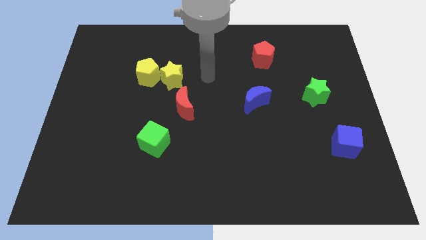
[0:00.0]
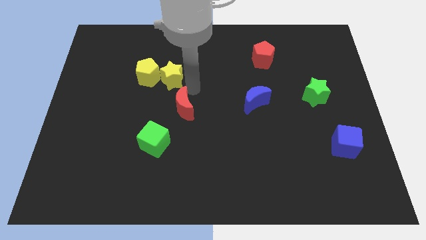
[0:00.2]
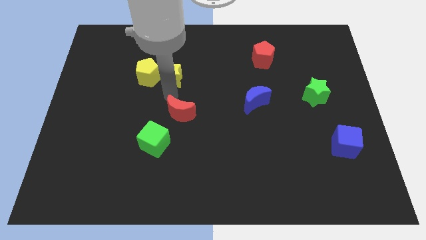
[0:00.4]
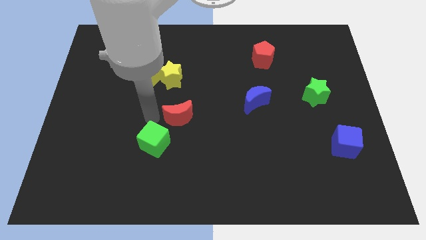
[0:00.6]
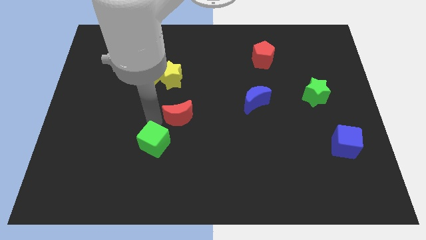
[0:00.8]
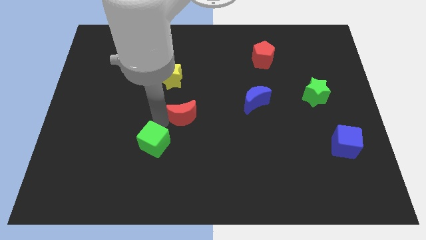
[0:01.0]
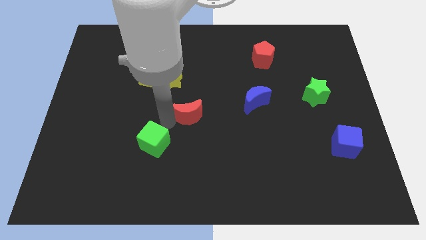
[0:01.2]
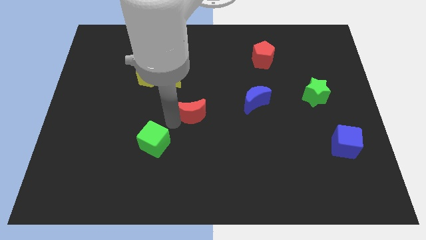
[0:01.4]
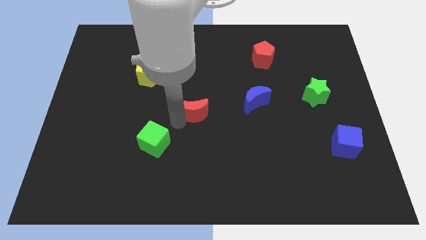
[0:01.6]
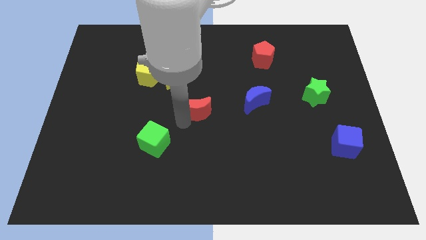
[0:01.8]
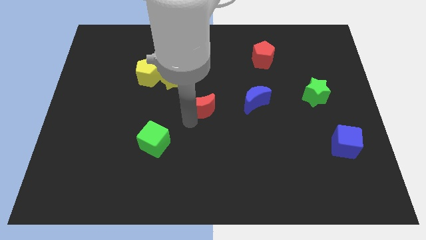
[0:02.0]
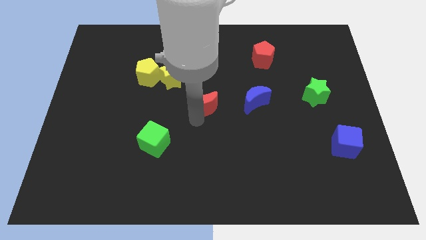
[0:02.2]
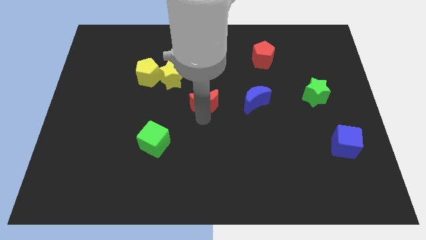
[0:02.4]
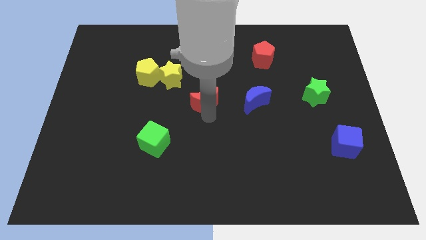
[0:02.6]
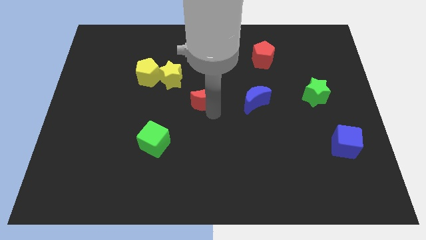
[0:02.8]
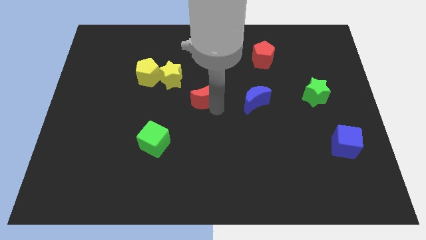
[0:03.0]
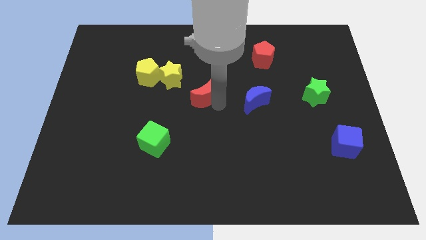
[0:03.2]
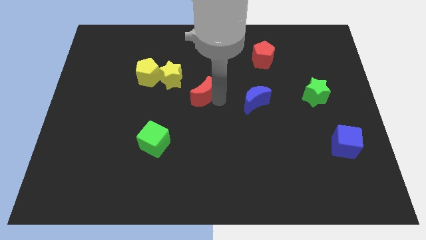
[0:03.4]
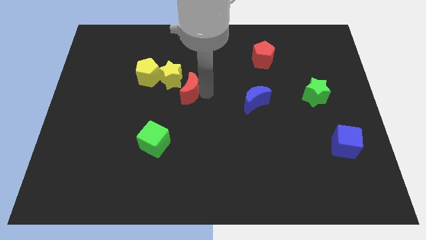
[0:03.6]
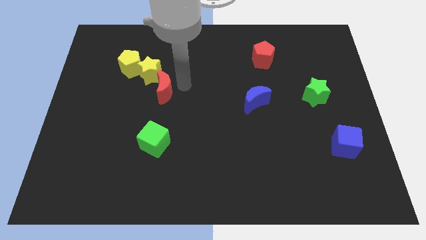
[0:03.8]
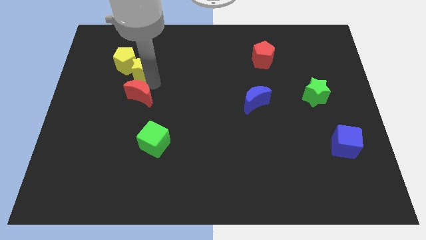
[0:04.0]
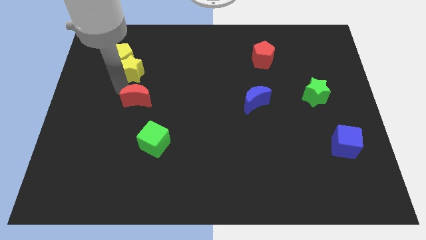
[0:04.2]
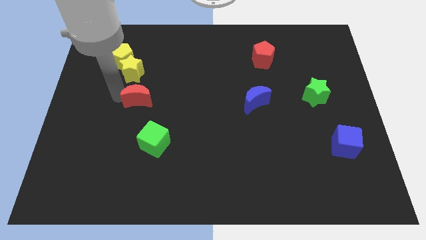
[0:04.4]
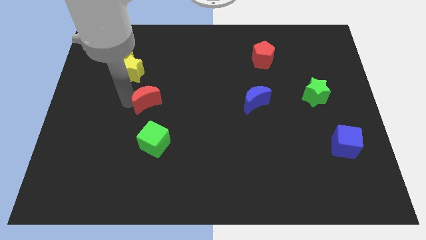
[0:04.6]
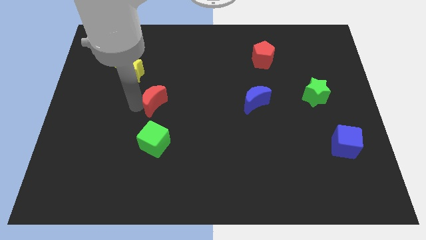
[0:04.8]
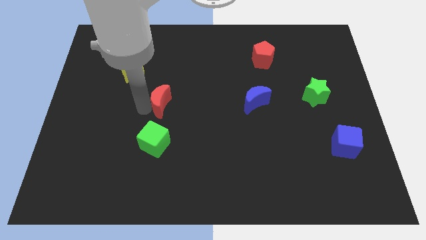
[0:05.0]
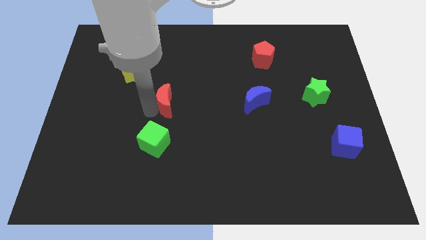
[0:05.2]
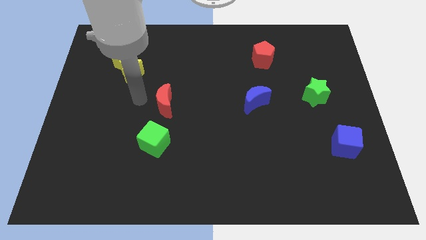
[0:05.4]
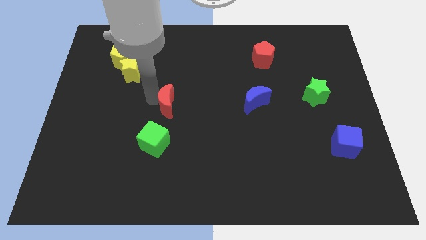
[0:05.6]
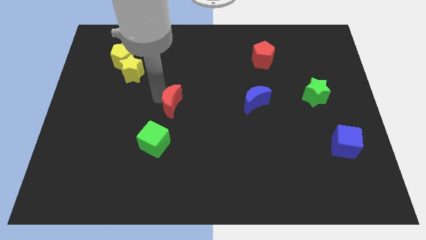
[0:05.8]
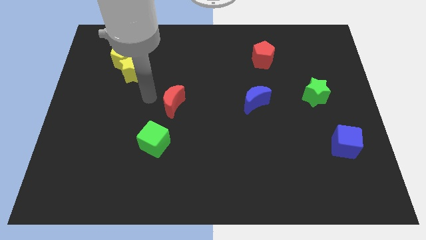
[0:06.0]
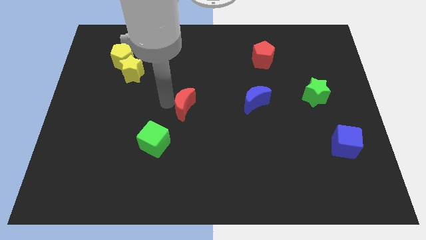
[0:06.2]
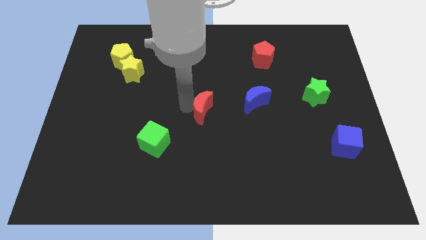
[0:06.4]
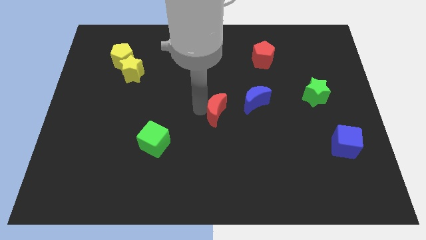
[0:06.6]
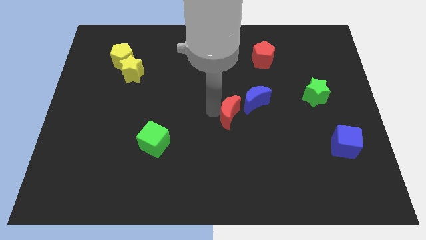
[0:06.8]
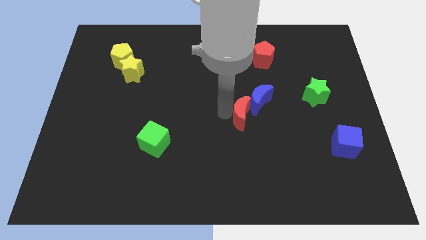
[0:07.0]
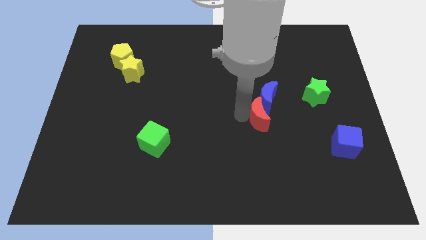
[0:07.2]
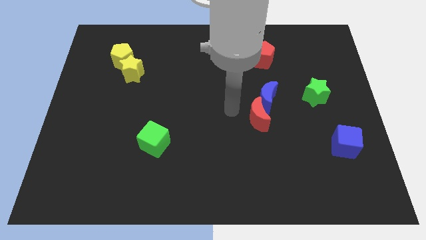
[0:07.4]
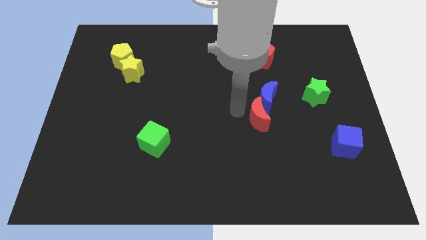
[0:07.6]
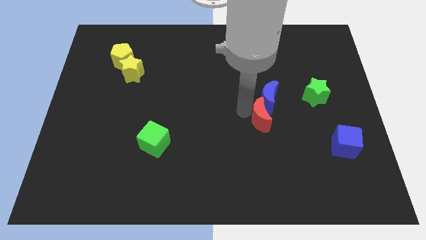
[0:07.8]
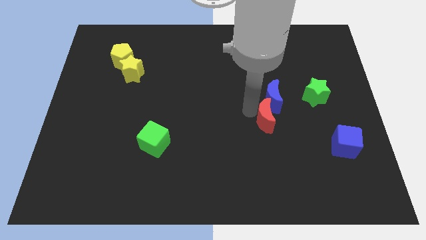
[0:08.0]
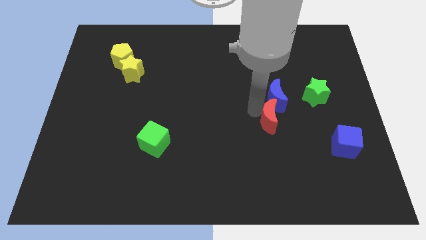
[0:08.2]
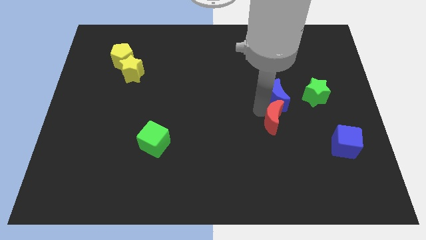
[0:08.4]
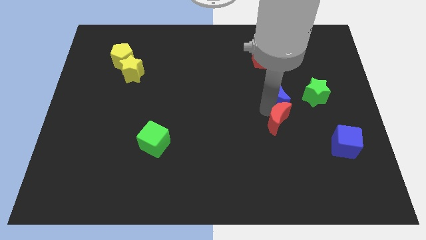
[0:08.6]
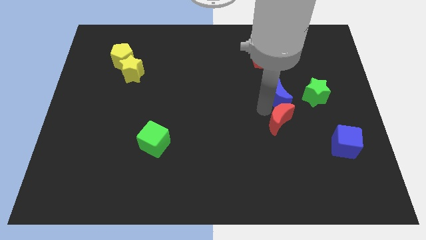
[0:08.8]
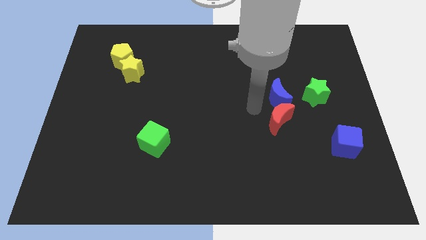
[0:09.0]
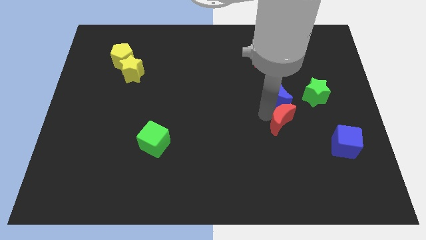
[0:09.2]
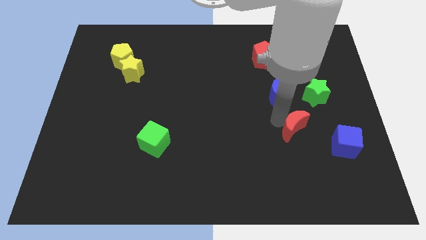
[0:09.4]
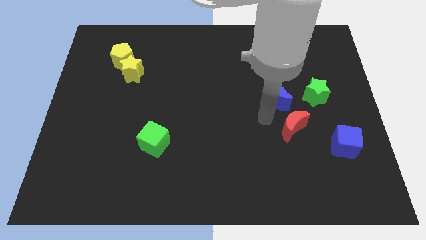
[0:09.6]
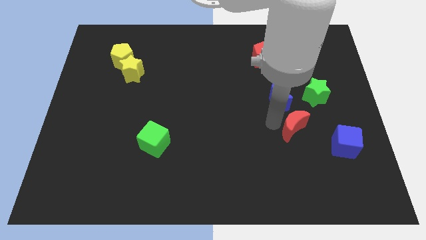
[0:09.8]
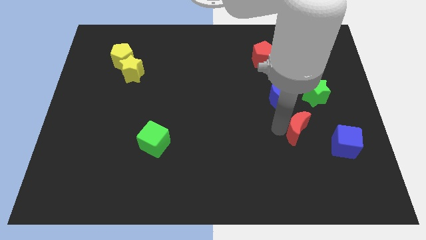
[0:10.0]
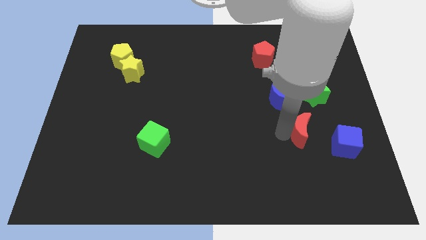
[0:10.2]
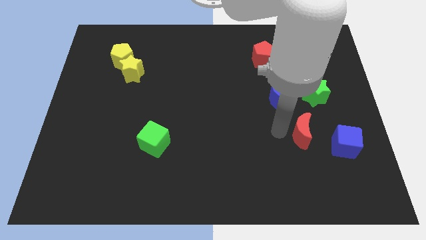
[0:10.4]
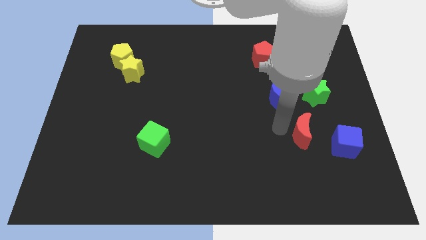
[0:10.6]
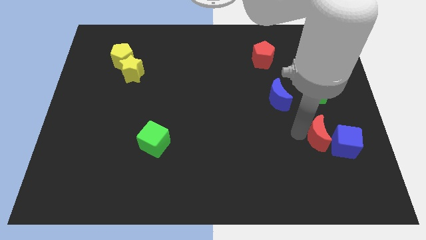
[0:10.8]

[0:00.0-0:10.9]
move the red moon to the blue cube

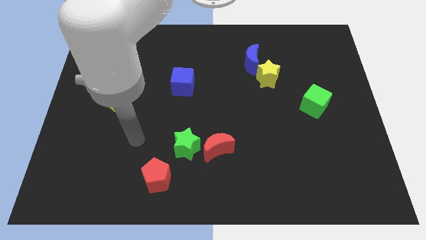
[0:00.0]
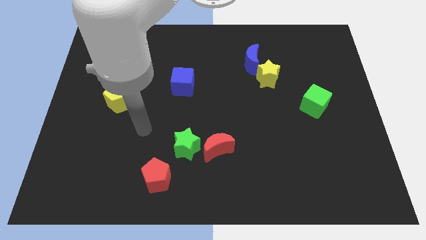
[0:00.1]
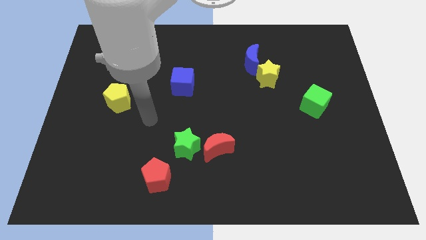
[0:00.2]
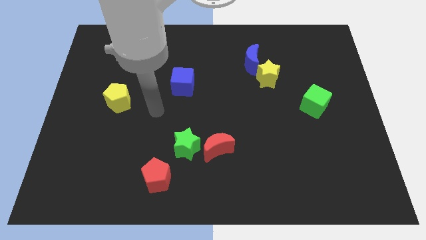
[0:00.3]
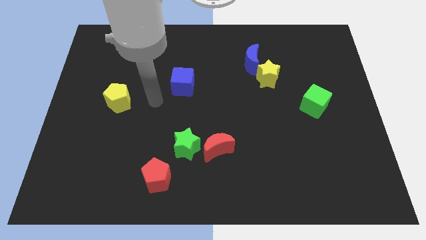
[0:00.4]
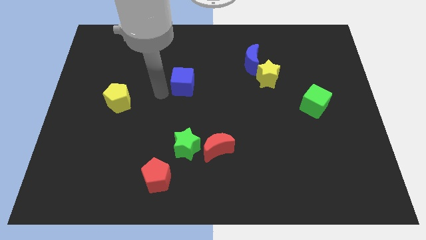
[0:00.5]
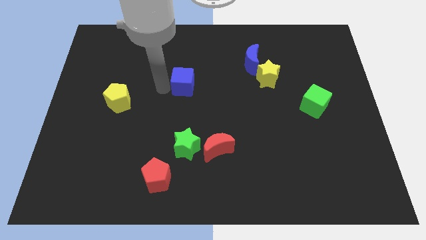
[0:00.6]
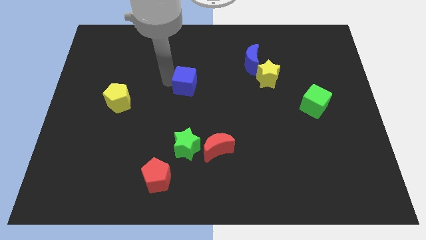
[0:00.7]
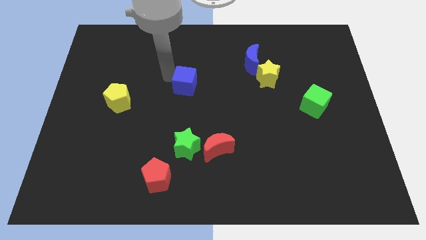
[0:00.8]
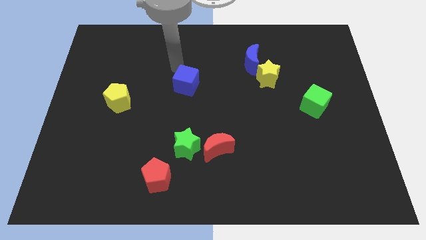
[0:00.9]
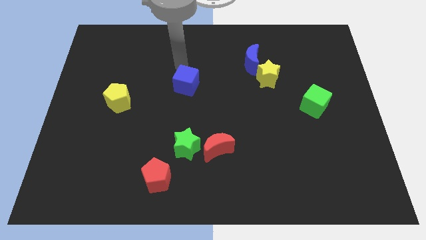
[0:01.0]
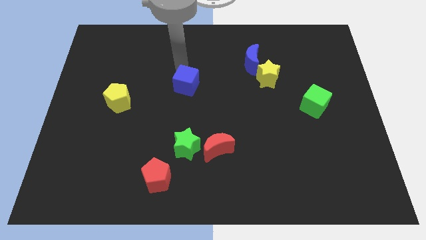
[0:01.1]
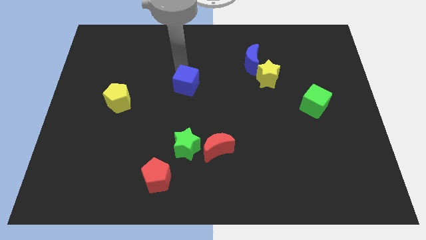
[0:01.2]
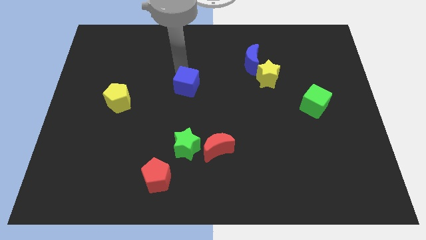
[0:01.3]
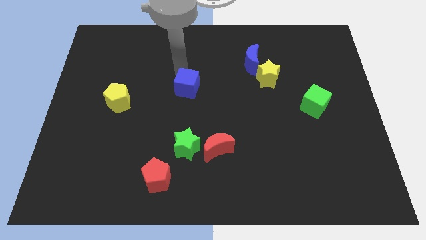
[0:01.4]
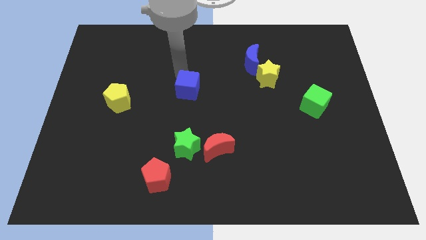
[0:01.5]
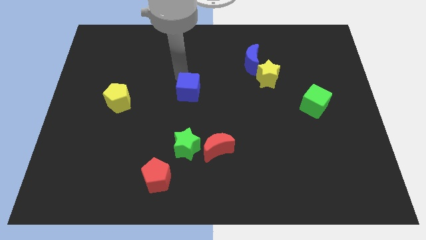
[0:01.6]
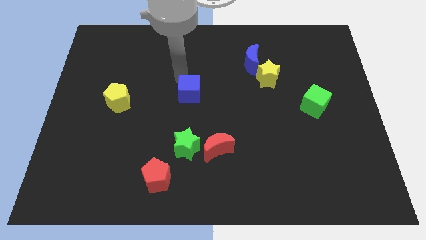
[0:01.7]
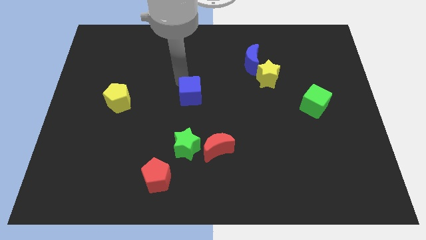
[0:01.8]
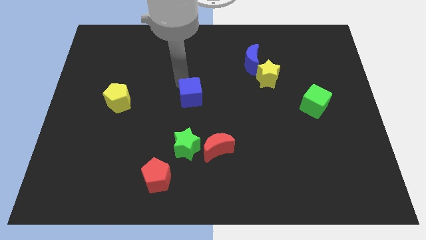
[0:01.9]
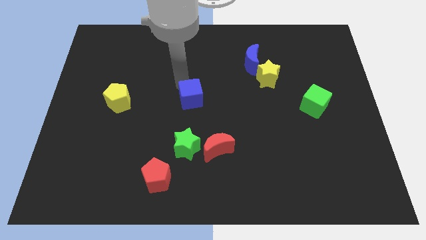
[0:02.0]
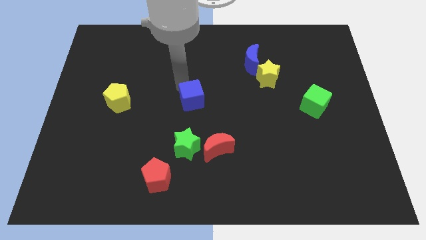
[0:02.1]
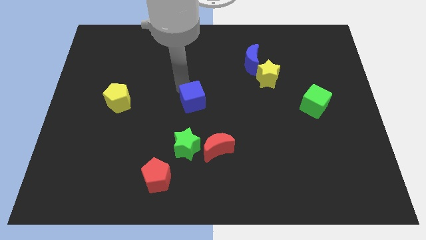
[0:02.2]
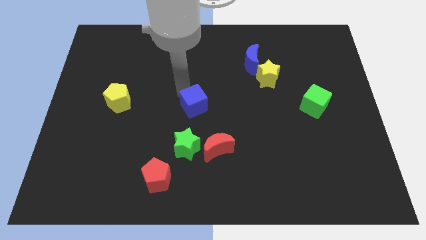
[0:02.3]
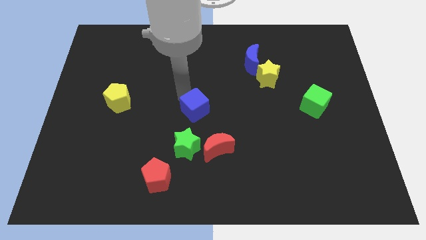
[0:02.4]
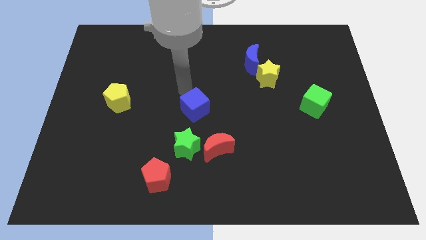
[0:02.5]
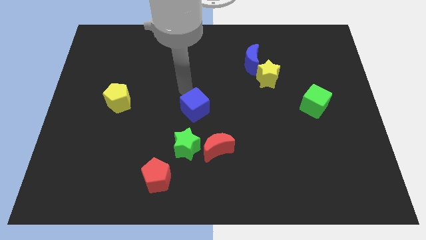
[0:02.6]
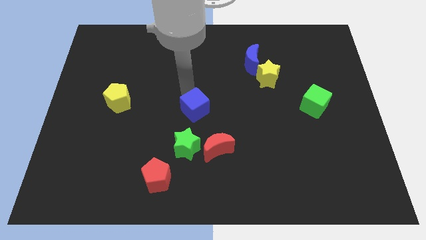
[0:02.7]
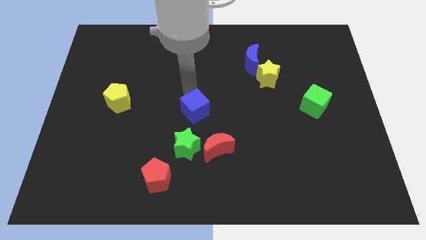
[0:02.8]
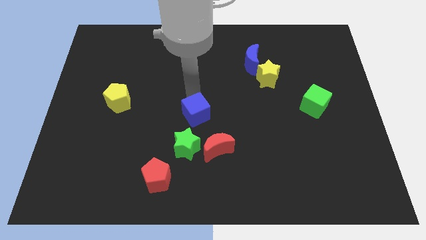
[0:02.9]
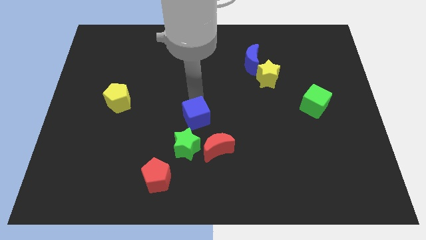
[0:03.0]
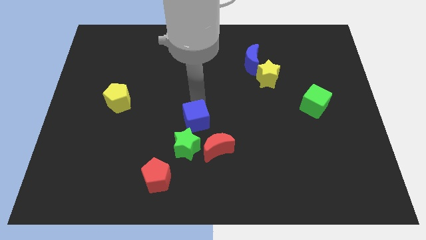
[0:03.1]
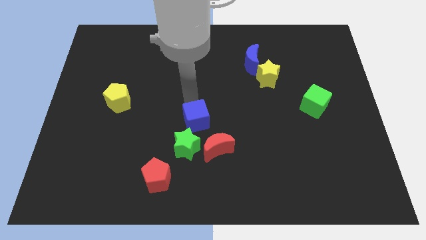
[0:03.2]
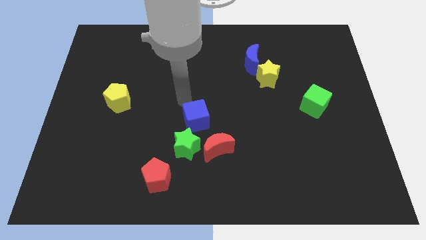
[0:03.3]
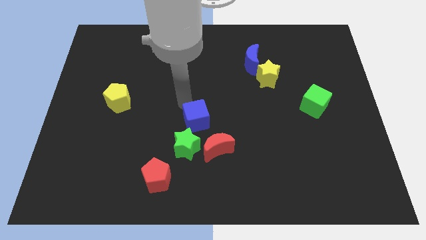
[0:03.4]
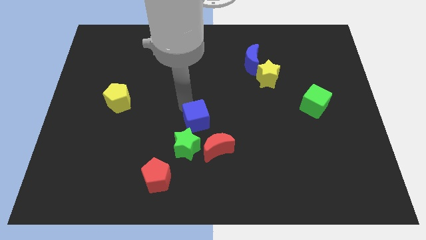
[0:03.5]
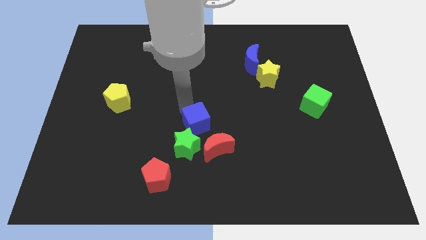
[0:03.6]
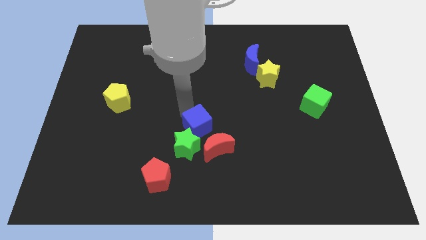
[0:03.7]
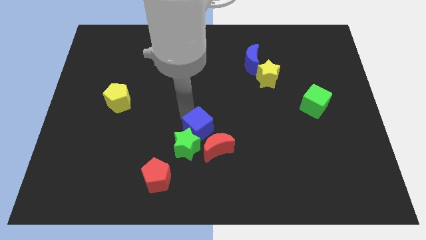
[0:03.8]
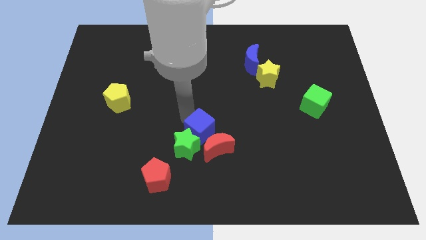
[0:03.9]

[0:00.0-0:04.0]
slide the blue cube close to the red moon
